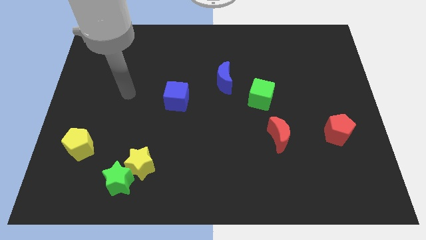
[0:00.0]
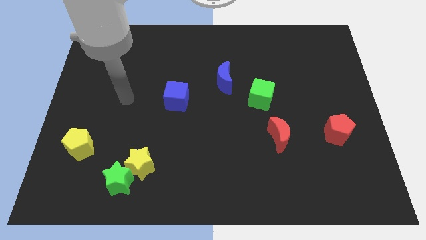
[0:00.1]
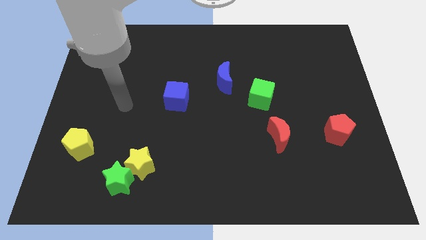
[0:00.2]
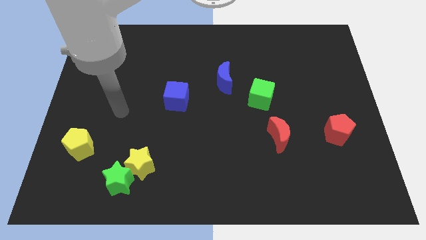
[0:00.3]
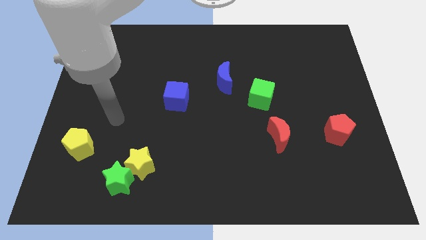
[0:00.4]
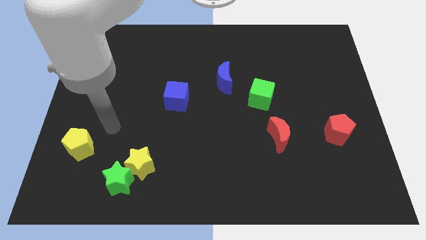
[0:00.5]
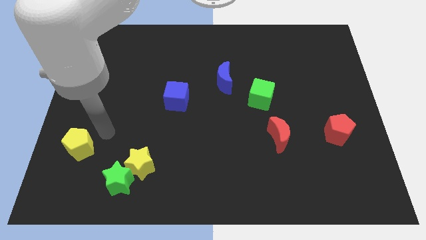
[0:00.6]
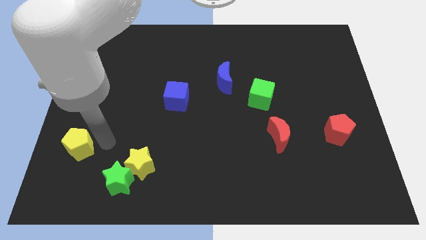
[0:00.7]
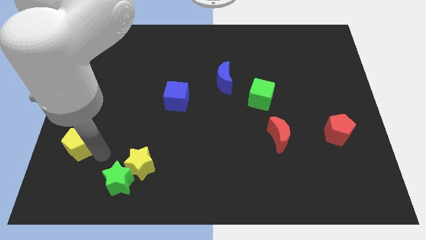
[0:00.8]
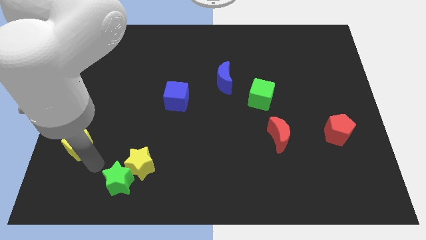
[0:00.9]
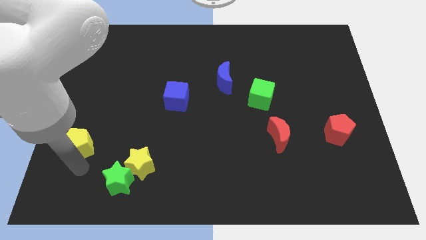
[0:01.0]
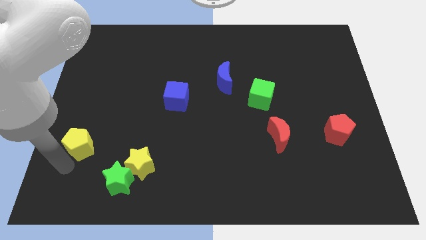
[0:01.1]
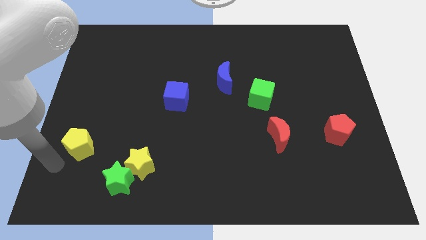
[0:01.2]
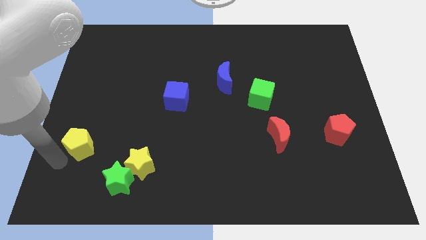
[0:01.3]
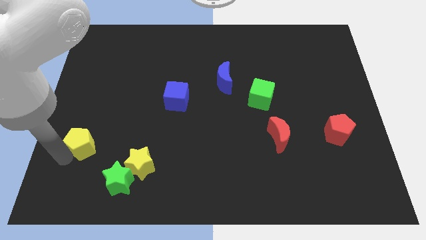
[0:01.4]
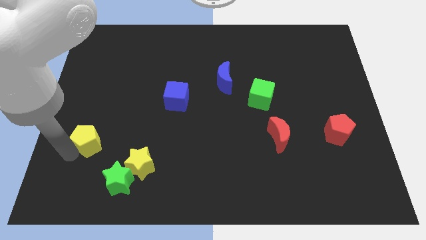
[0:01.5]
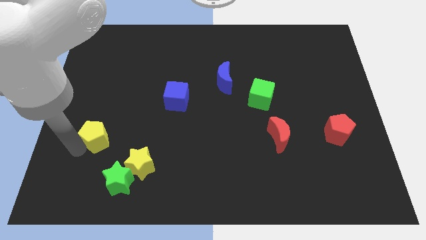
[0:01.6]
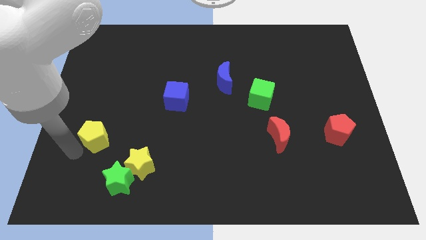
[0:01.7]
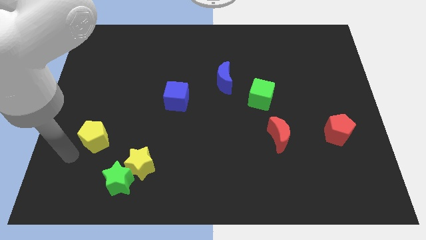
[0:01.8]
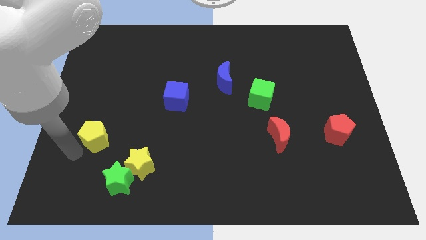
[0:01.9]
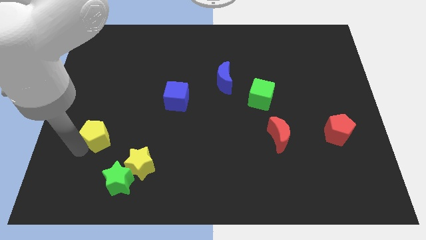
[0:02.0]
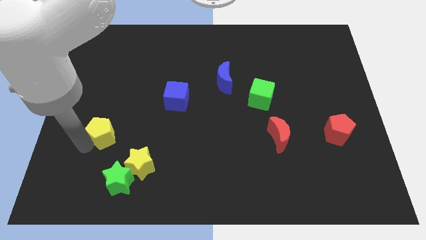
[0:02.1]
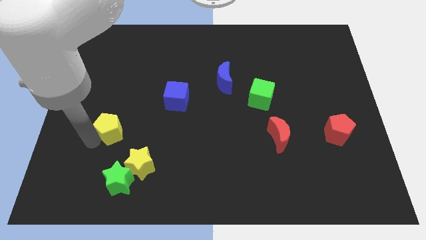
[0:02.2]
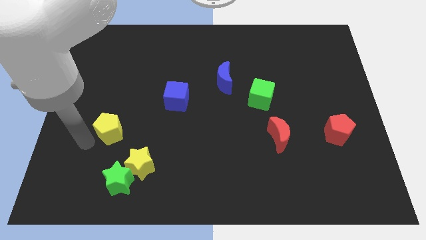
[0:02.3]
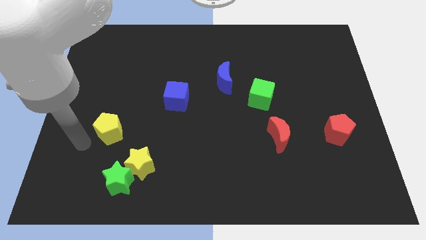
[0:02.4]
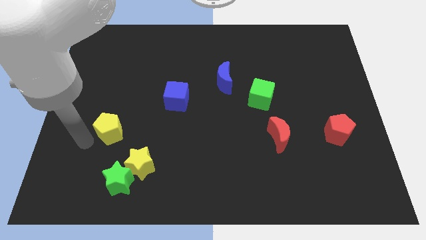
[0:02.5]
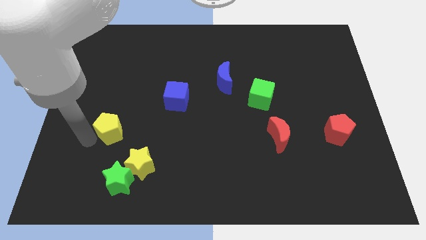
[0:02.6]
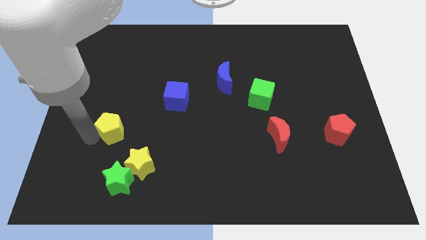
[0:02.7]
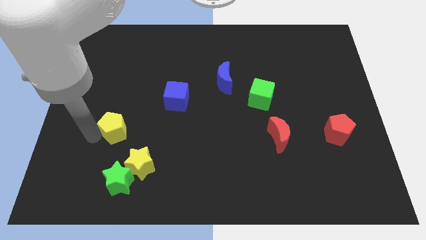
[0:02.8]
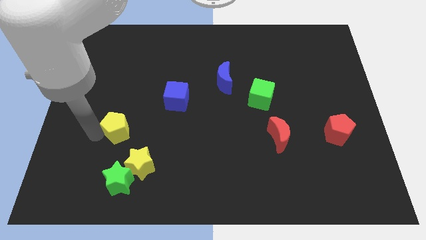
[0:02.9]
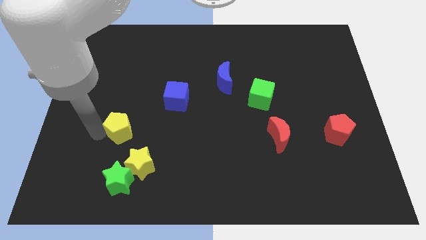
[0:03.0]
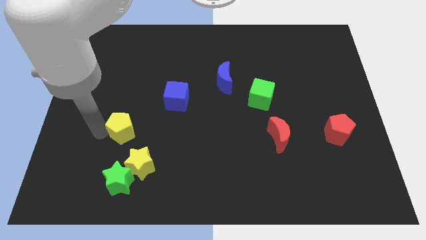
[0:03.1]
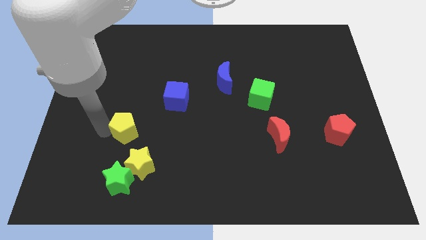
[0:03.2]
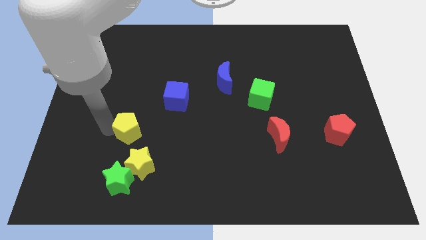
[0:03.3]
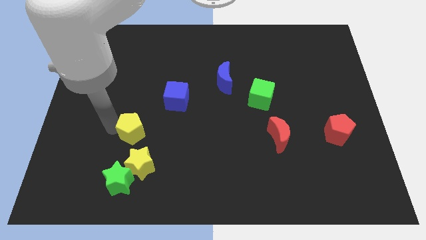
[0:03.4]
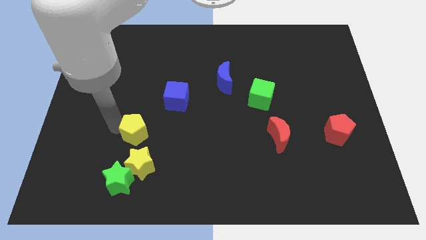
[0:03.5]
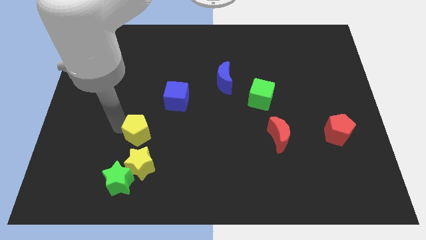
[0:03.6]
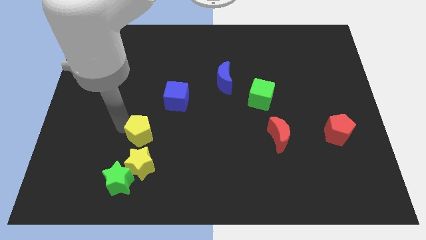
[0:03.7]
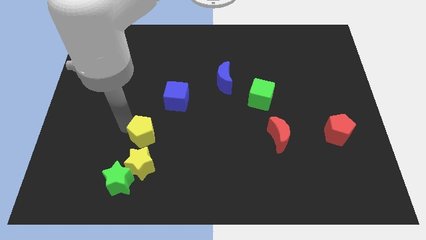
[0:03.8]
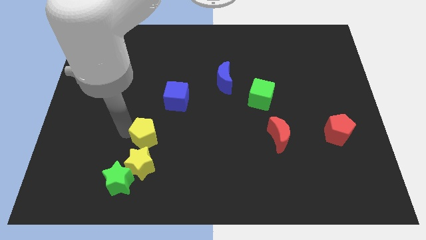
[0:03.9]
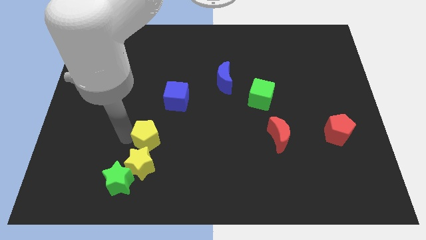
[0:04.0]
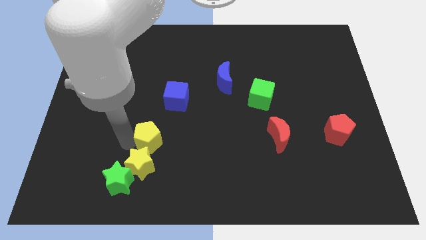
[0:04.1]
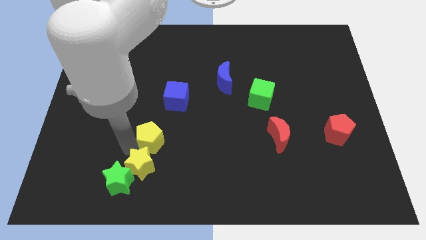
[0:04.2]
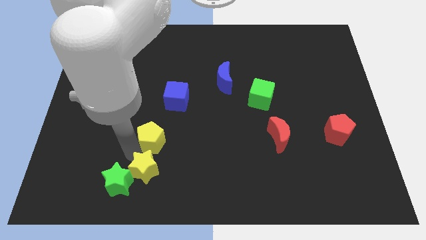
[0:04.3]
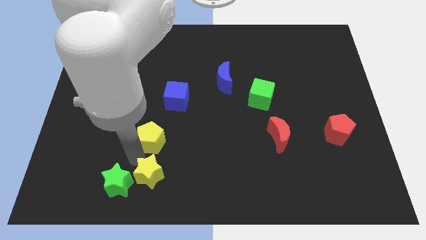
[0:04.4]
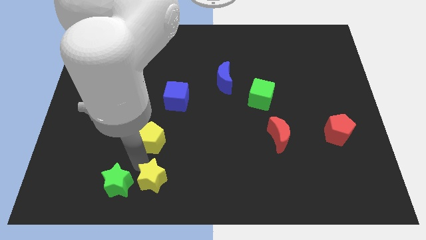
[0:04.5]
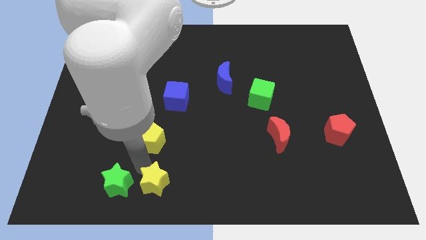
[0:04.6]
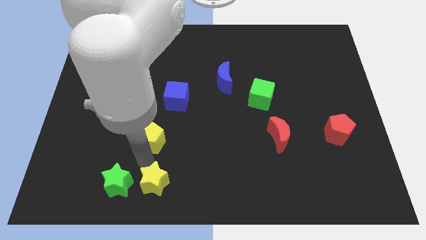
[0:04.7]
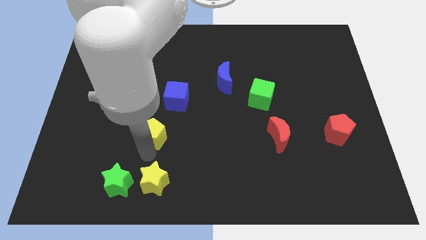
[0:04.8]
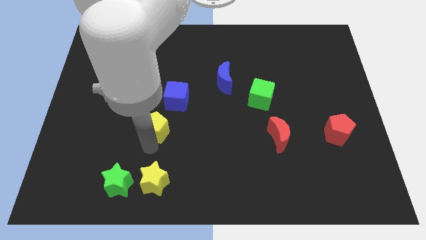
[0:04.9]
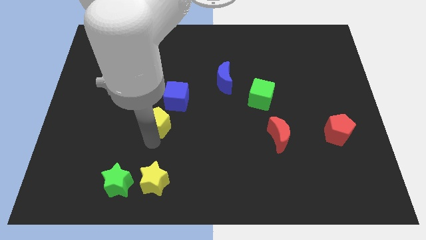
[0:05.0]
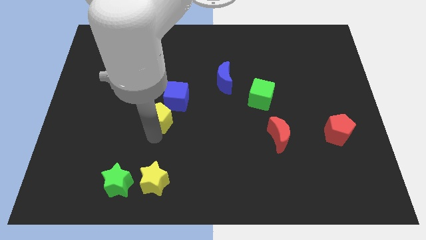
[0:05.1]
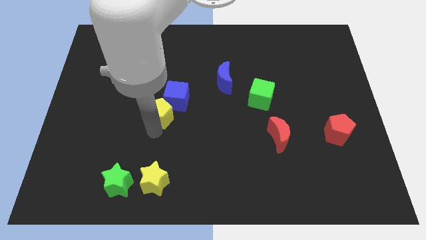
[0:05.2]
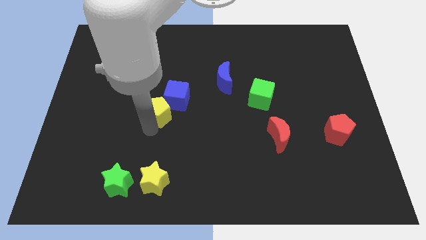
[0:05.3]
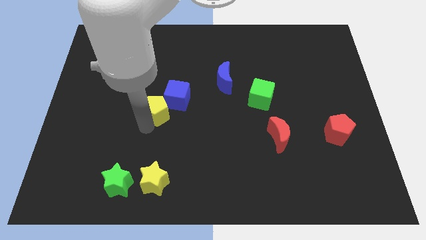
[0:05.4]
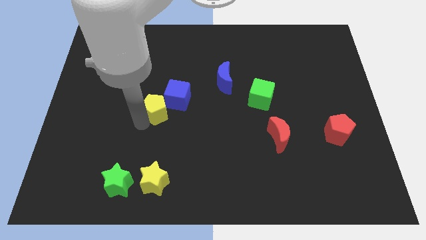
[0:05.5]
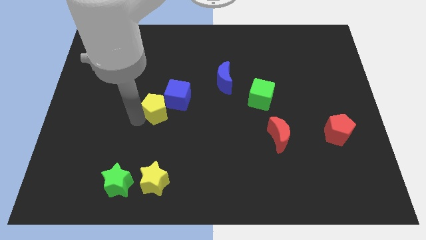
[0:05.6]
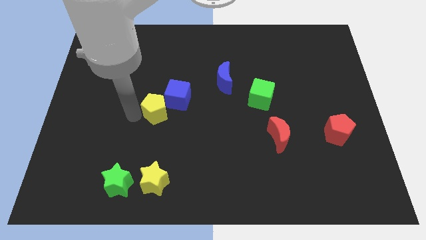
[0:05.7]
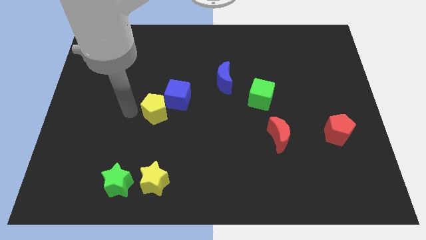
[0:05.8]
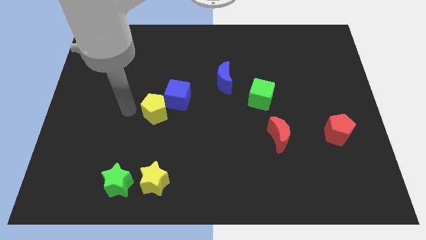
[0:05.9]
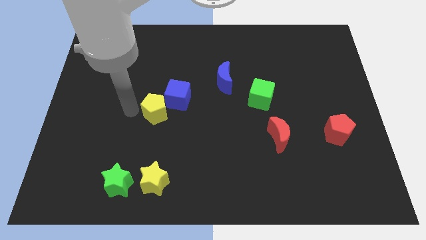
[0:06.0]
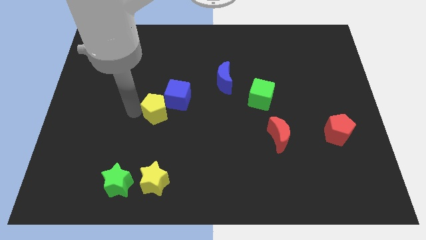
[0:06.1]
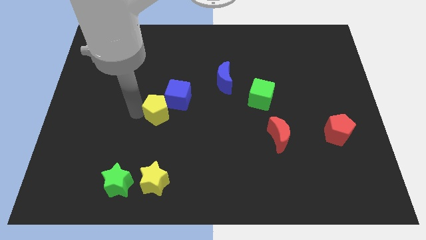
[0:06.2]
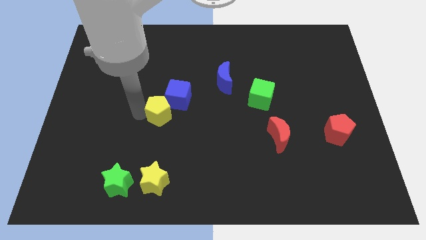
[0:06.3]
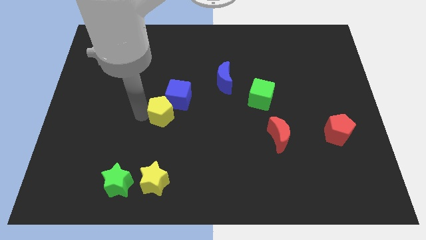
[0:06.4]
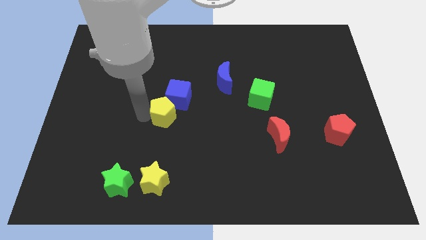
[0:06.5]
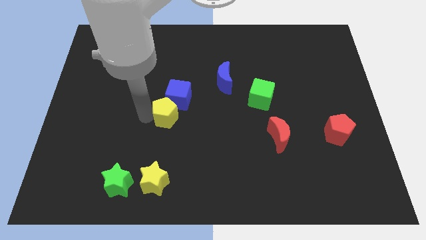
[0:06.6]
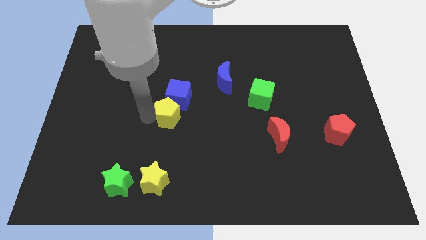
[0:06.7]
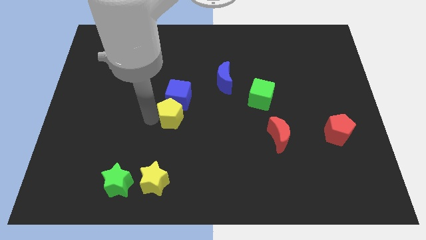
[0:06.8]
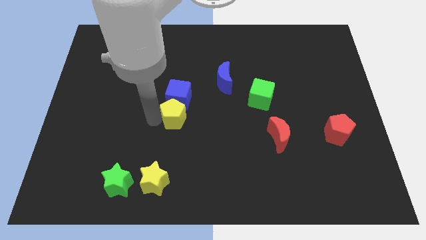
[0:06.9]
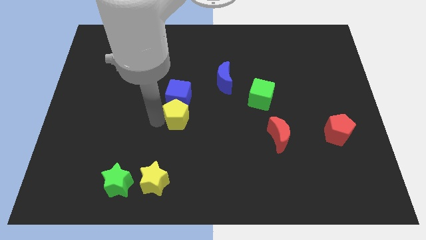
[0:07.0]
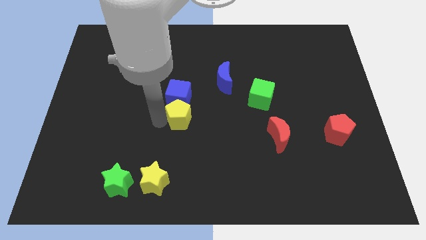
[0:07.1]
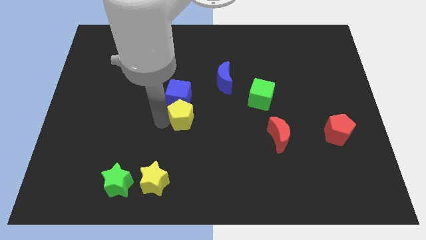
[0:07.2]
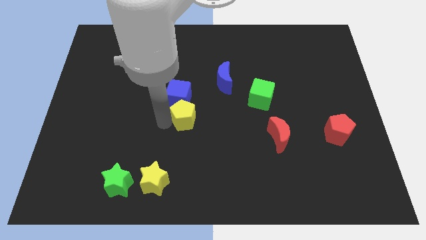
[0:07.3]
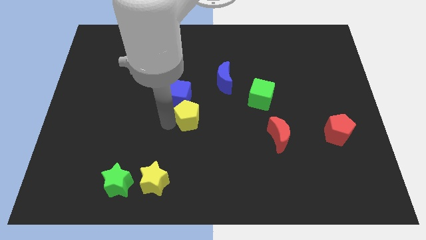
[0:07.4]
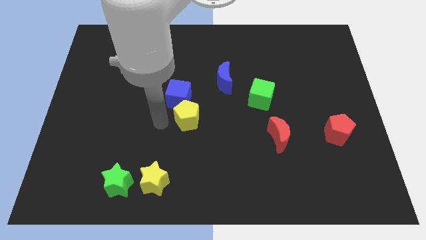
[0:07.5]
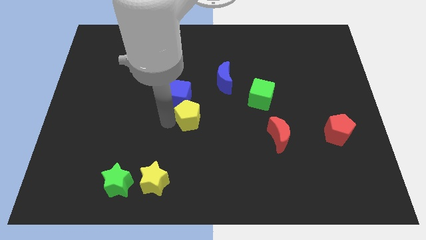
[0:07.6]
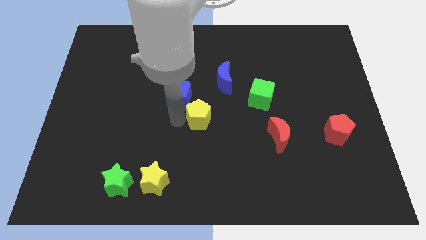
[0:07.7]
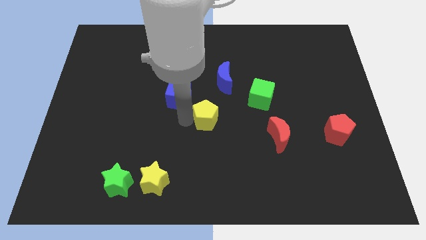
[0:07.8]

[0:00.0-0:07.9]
put the yellow pentagon below the blue moon
